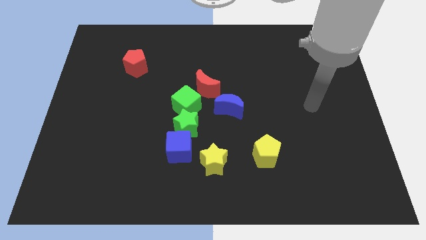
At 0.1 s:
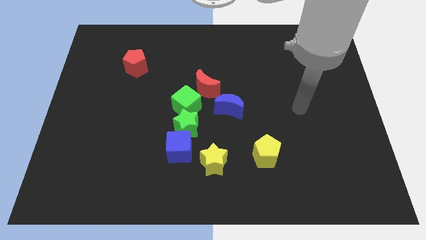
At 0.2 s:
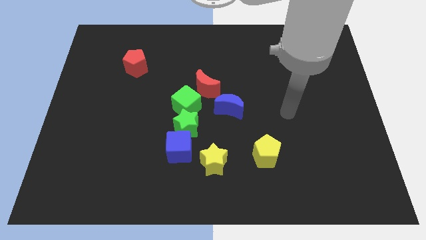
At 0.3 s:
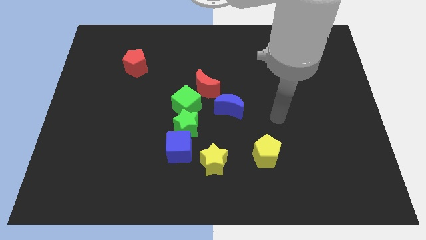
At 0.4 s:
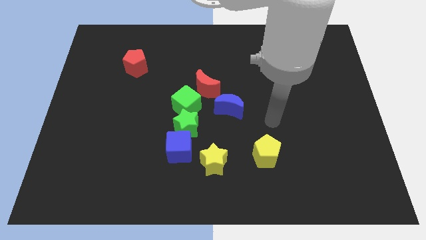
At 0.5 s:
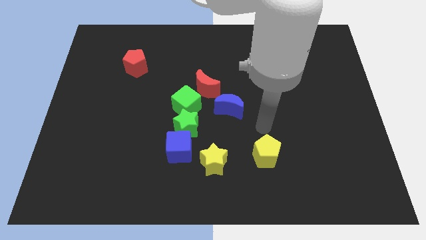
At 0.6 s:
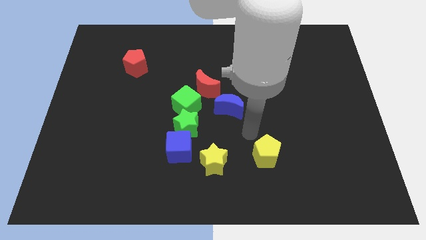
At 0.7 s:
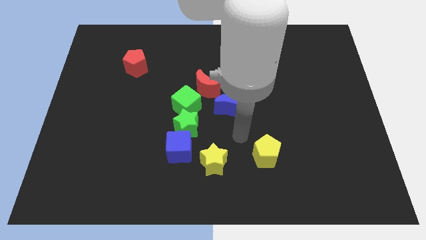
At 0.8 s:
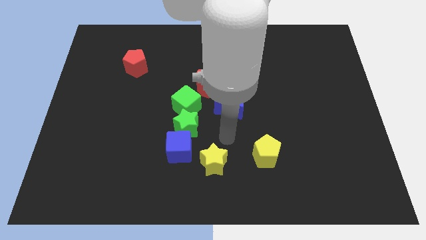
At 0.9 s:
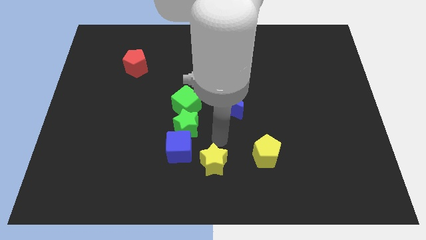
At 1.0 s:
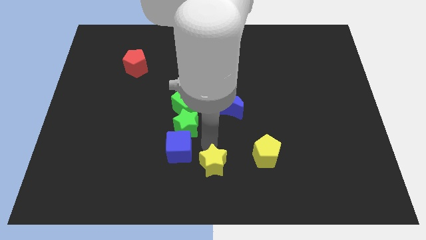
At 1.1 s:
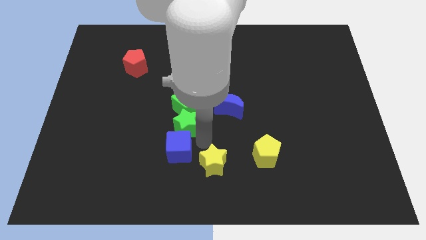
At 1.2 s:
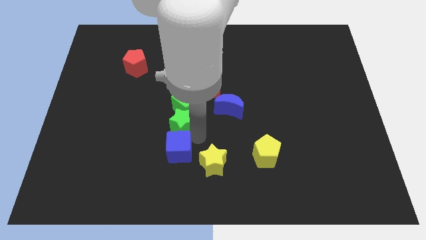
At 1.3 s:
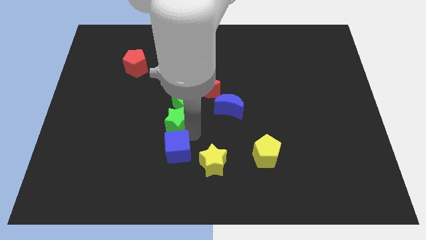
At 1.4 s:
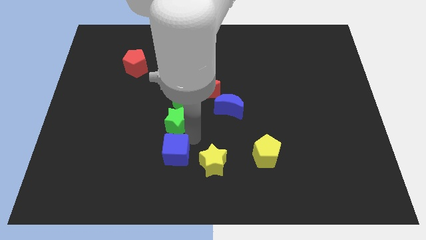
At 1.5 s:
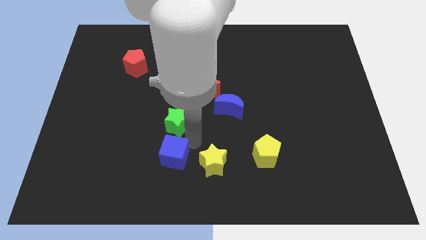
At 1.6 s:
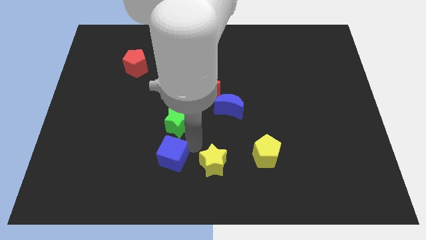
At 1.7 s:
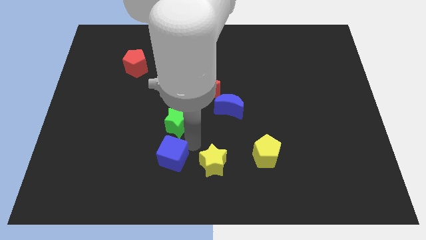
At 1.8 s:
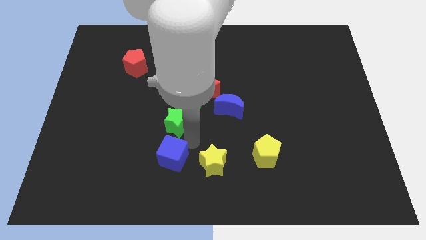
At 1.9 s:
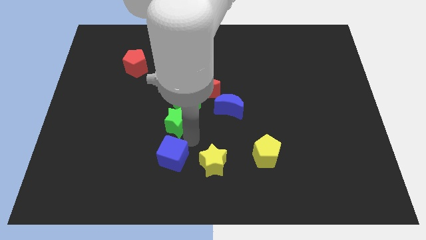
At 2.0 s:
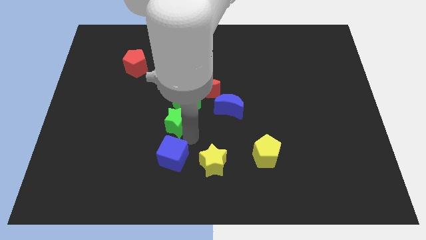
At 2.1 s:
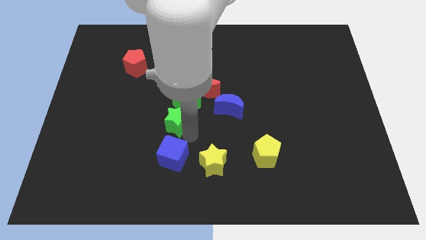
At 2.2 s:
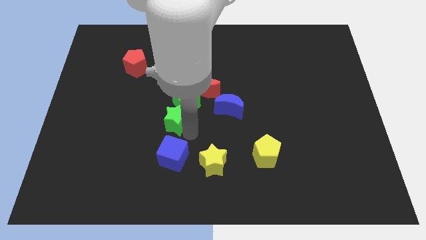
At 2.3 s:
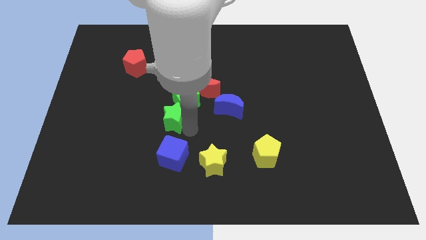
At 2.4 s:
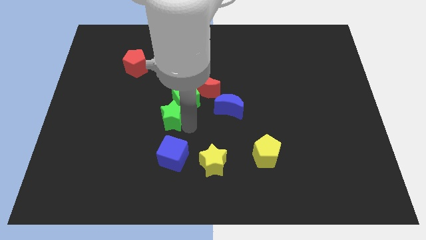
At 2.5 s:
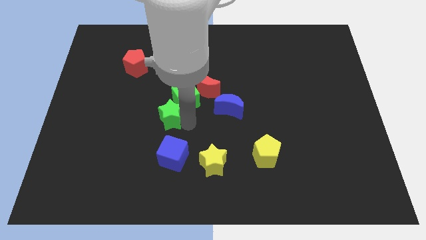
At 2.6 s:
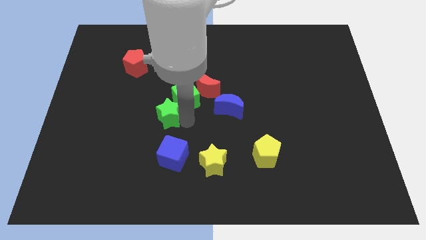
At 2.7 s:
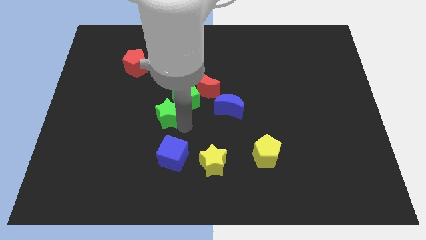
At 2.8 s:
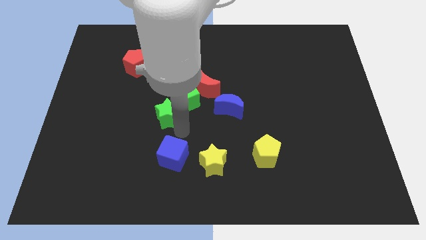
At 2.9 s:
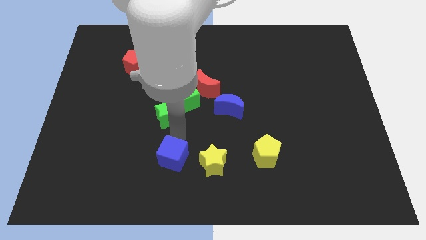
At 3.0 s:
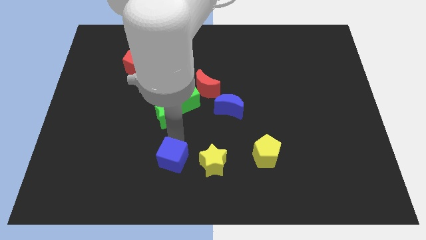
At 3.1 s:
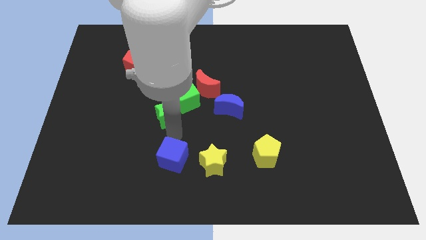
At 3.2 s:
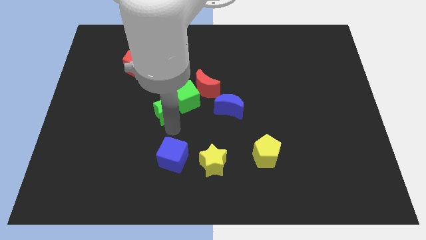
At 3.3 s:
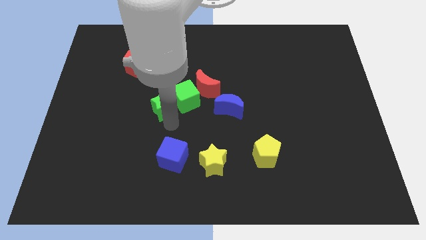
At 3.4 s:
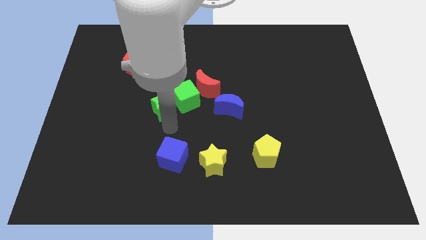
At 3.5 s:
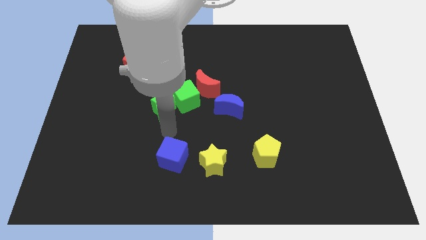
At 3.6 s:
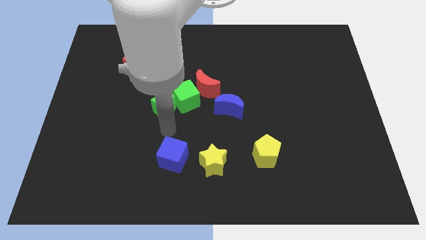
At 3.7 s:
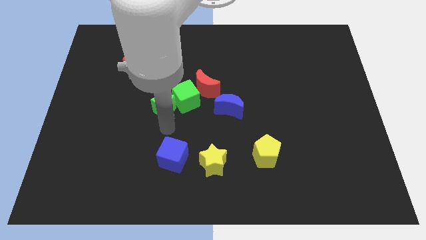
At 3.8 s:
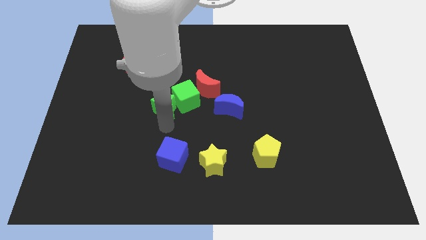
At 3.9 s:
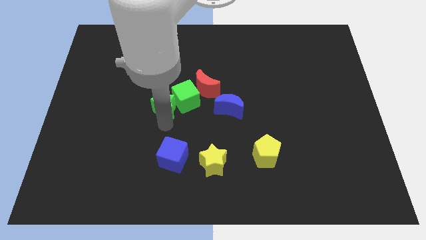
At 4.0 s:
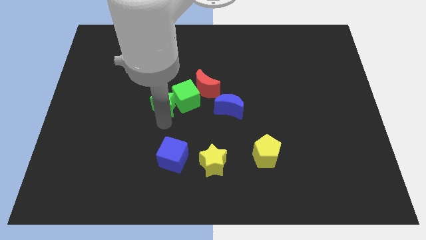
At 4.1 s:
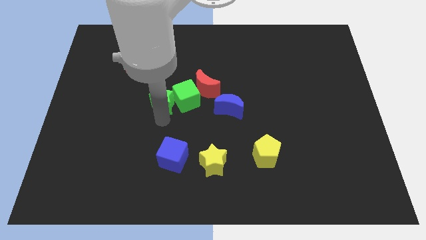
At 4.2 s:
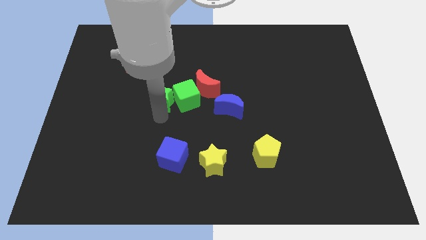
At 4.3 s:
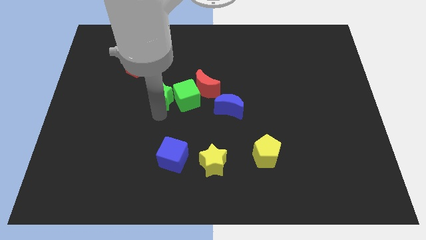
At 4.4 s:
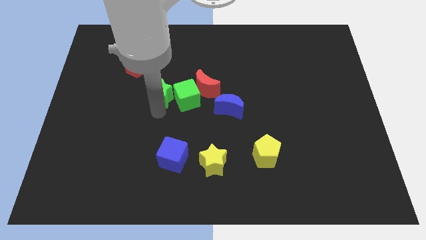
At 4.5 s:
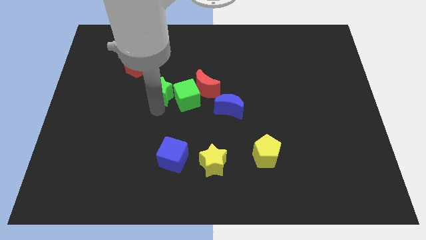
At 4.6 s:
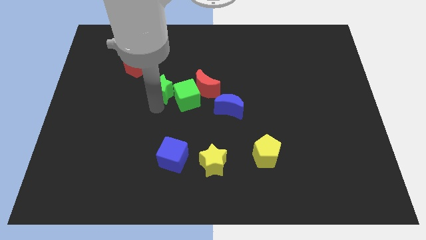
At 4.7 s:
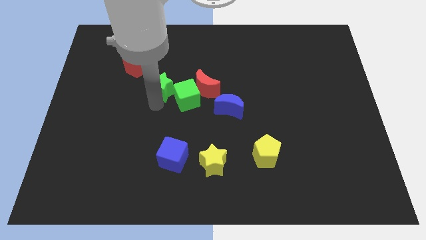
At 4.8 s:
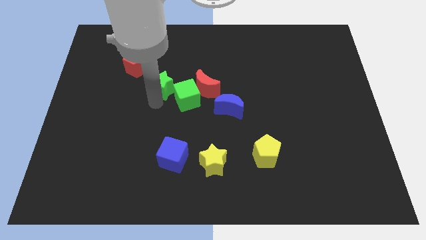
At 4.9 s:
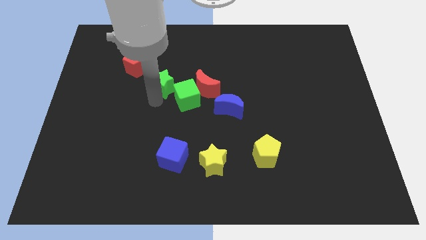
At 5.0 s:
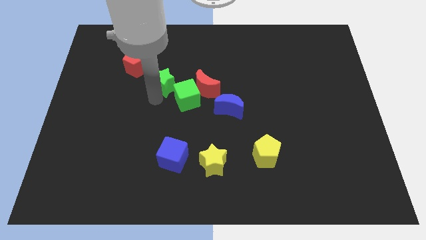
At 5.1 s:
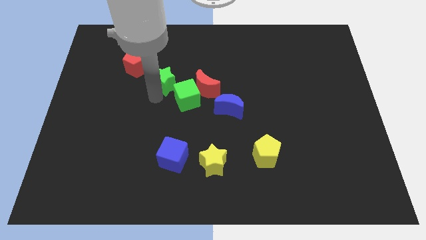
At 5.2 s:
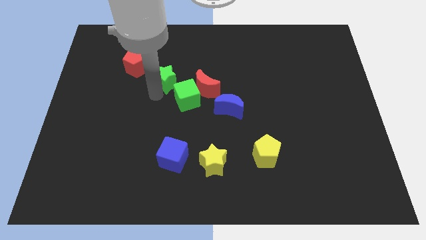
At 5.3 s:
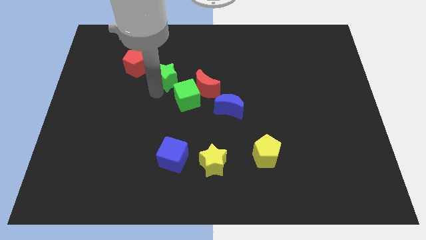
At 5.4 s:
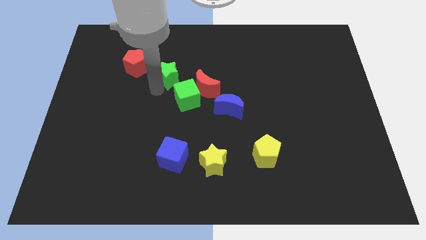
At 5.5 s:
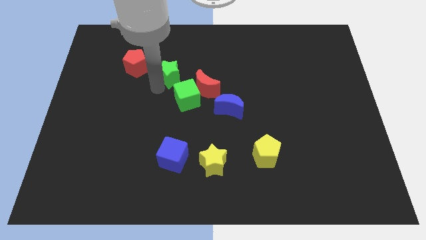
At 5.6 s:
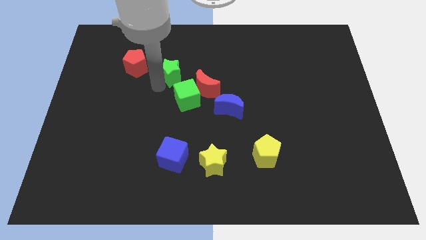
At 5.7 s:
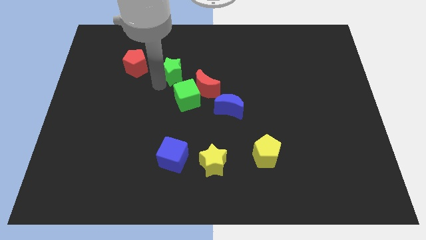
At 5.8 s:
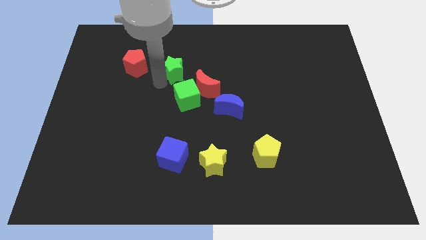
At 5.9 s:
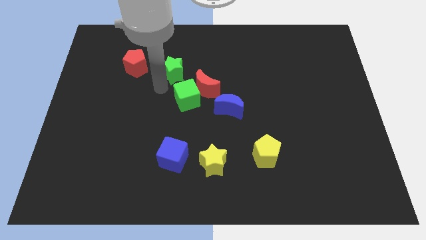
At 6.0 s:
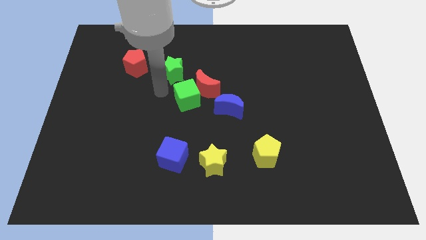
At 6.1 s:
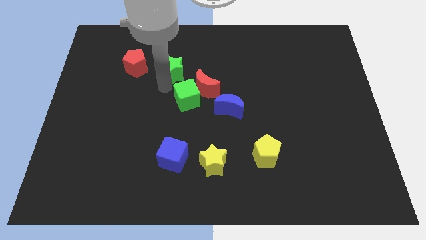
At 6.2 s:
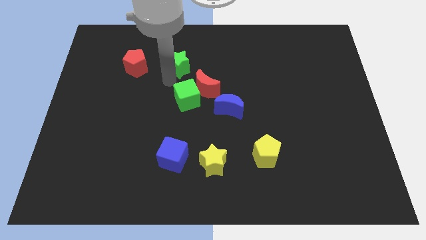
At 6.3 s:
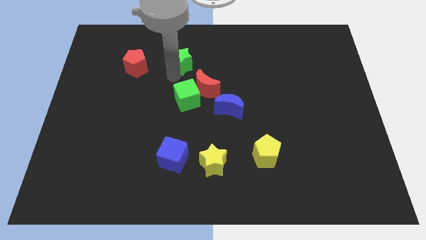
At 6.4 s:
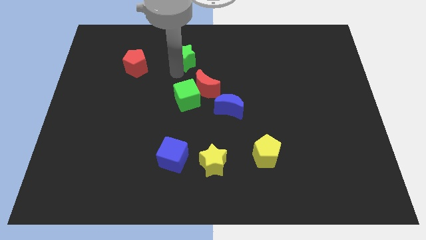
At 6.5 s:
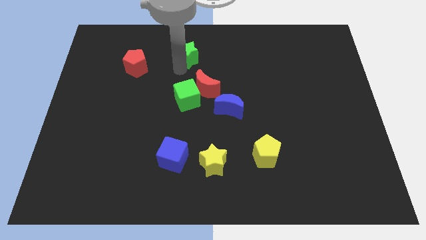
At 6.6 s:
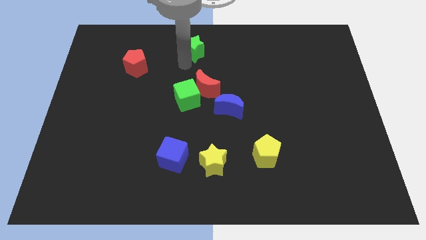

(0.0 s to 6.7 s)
put the green star to the top
